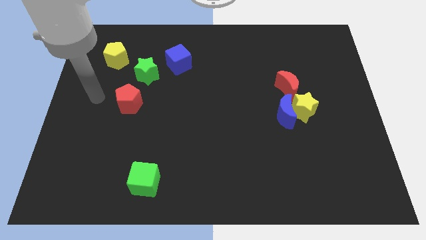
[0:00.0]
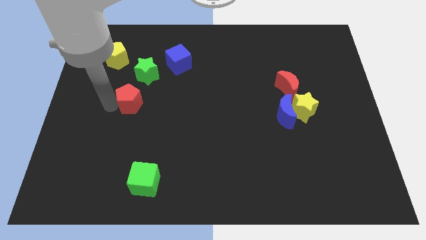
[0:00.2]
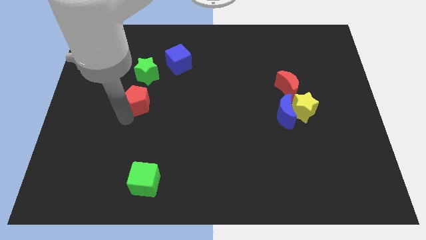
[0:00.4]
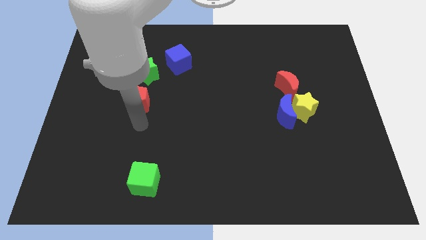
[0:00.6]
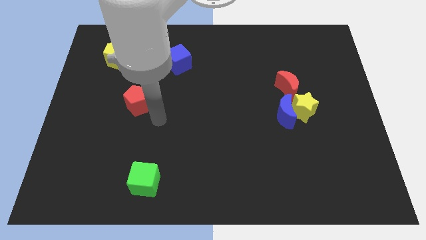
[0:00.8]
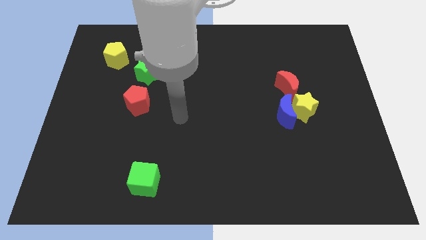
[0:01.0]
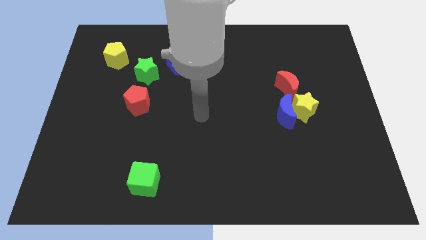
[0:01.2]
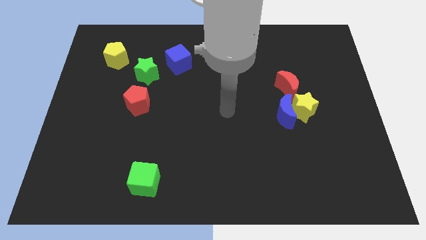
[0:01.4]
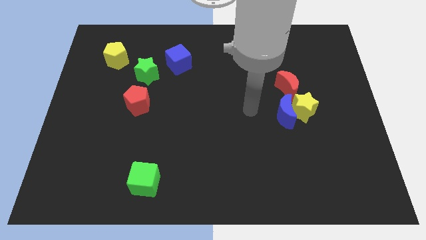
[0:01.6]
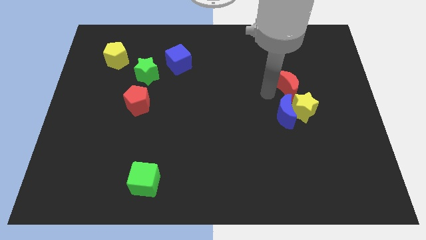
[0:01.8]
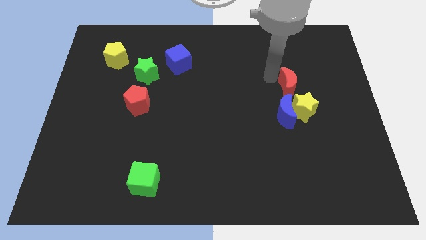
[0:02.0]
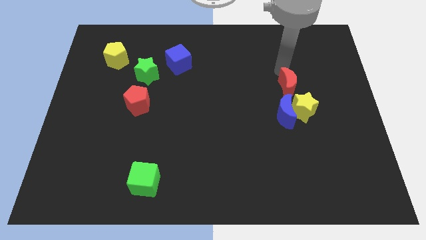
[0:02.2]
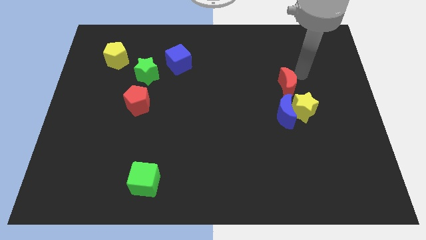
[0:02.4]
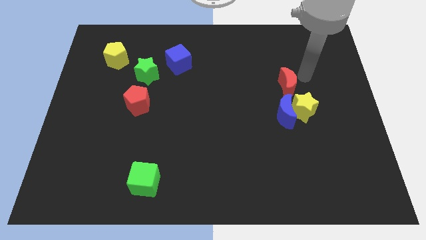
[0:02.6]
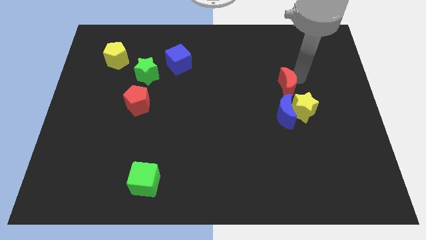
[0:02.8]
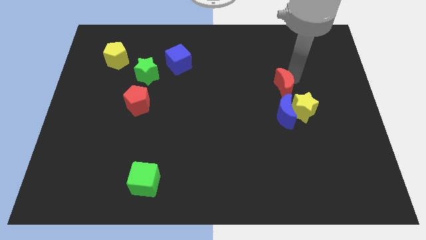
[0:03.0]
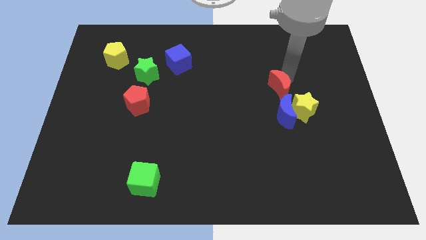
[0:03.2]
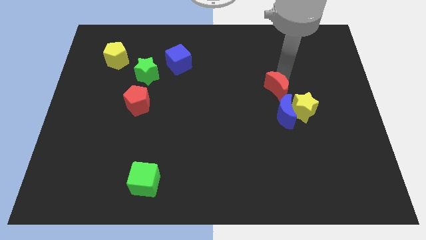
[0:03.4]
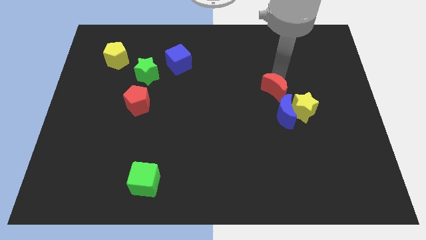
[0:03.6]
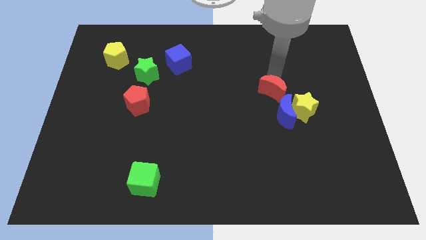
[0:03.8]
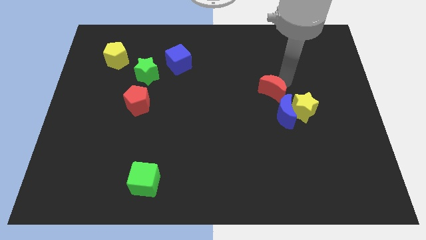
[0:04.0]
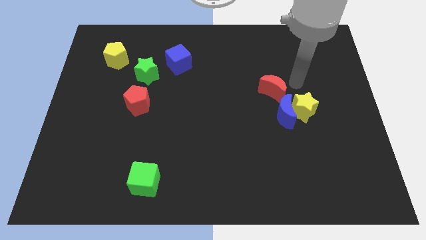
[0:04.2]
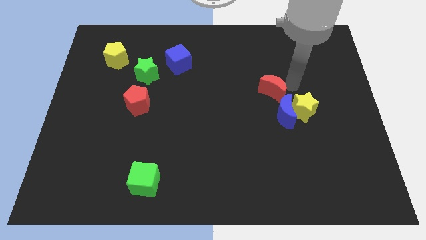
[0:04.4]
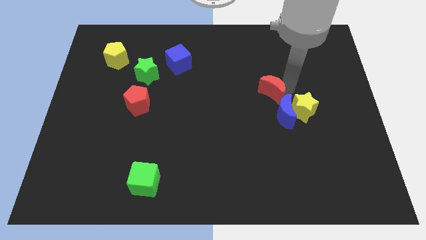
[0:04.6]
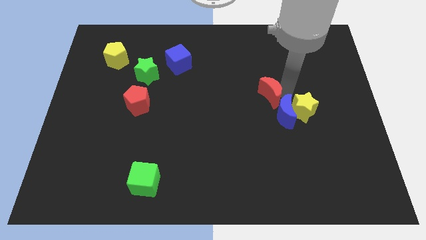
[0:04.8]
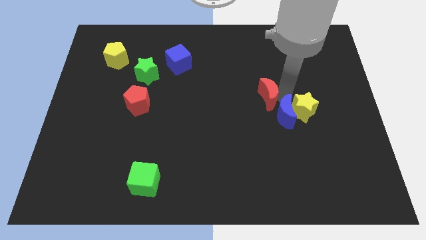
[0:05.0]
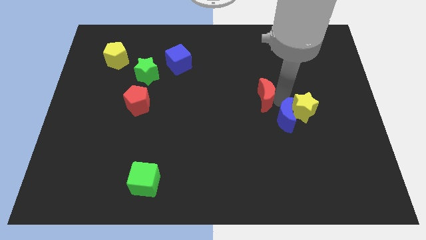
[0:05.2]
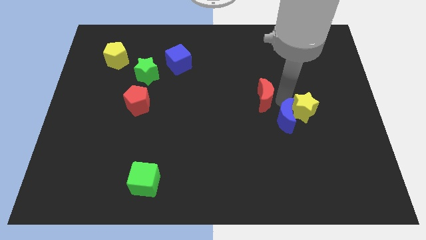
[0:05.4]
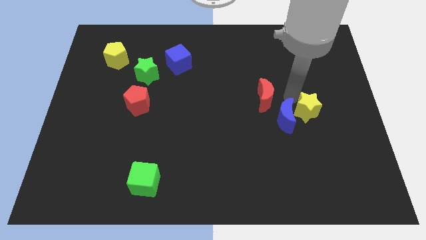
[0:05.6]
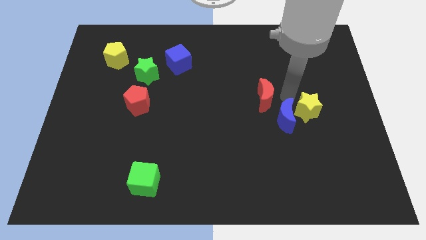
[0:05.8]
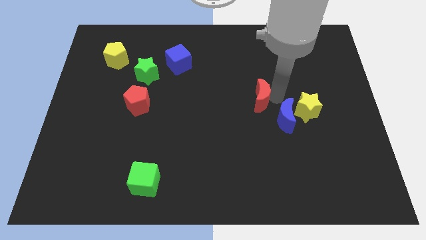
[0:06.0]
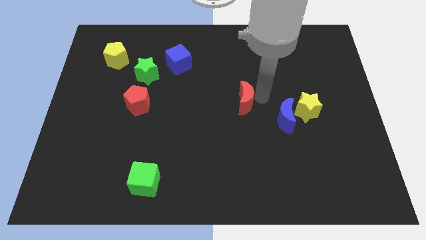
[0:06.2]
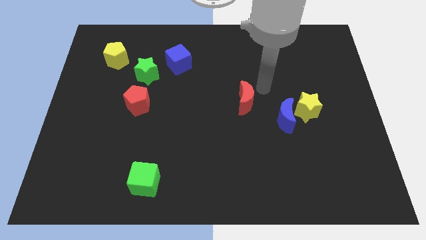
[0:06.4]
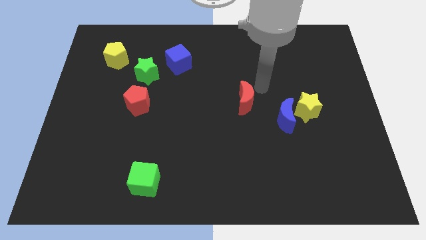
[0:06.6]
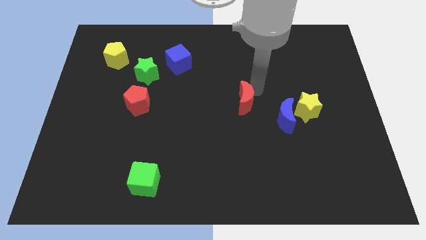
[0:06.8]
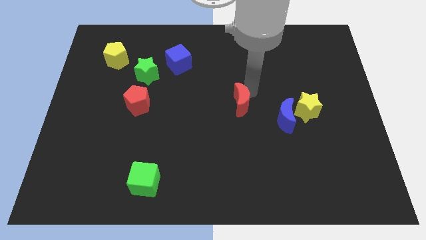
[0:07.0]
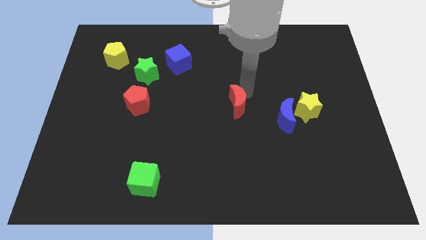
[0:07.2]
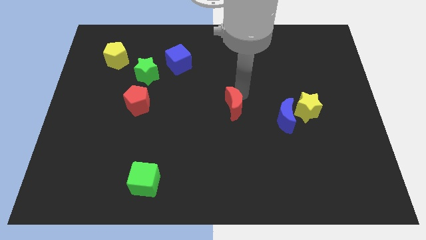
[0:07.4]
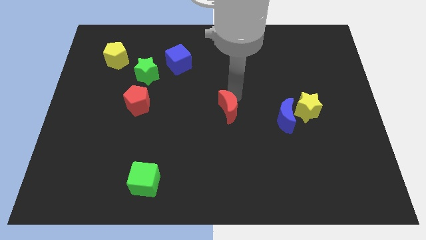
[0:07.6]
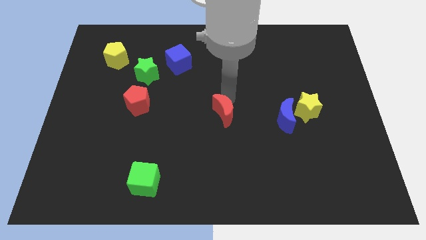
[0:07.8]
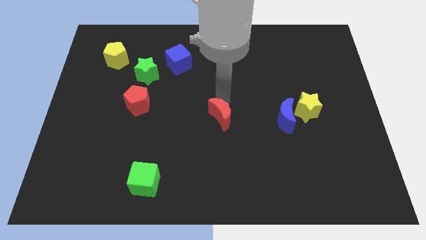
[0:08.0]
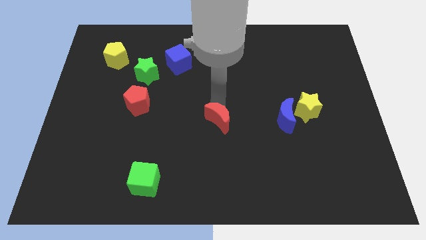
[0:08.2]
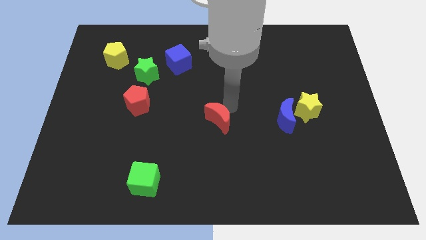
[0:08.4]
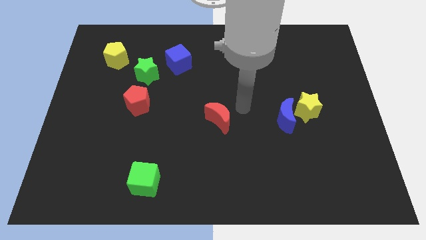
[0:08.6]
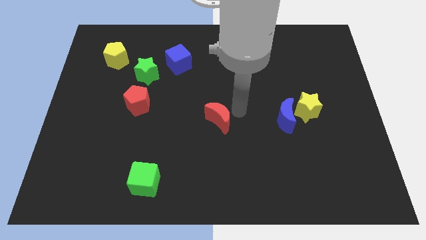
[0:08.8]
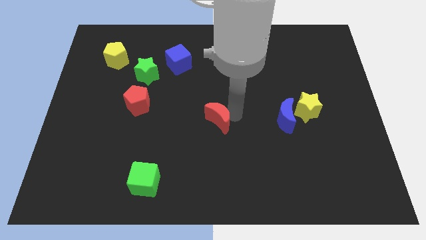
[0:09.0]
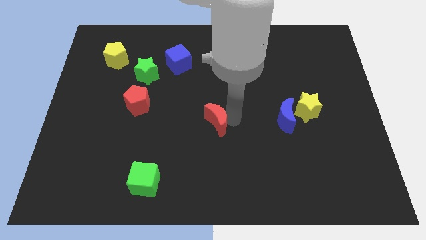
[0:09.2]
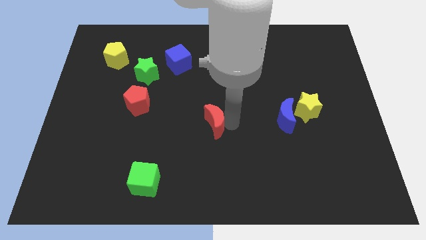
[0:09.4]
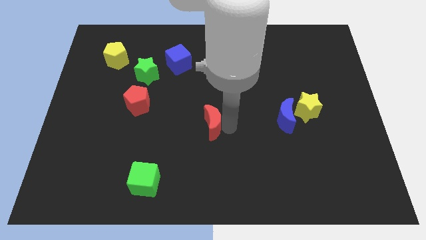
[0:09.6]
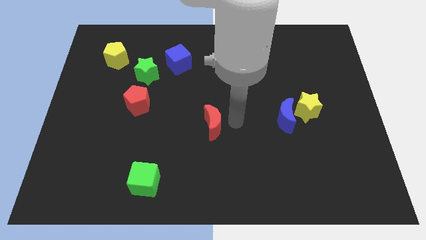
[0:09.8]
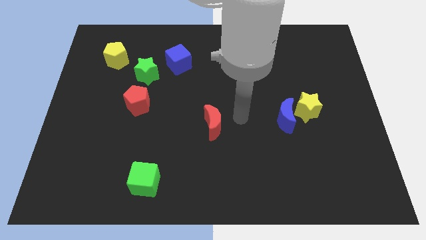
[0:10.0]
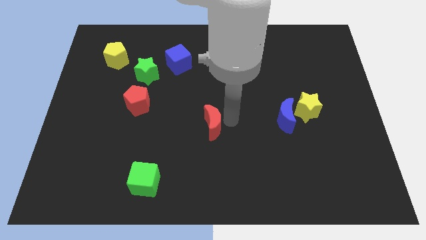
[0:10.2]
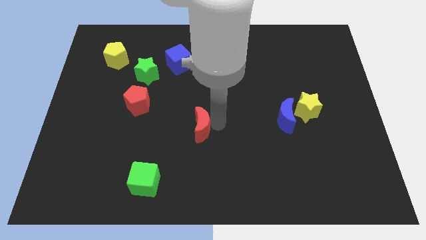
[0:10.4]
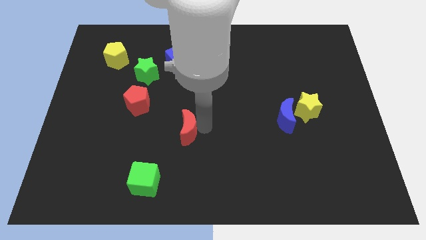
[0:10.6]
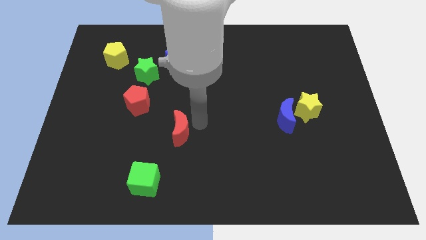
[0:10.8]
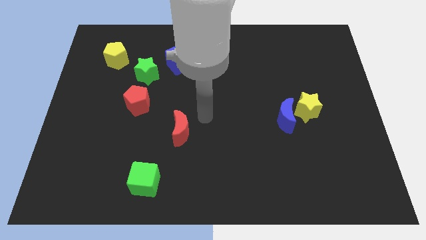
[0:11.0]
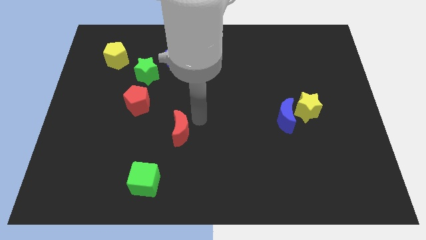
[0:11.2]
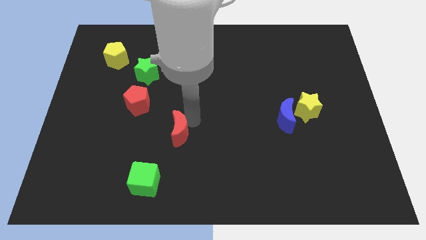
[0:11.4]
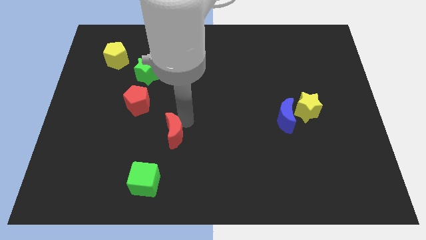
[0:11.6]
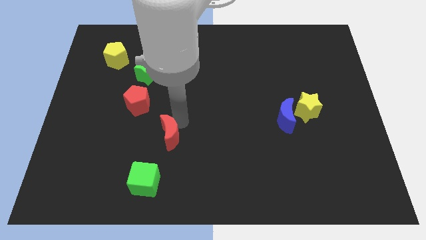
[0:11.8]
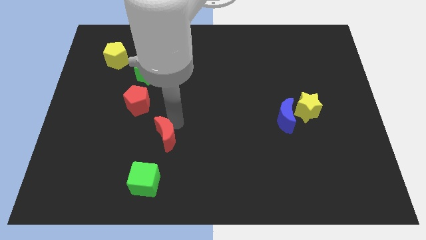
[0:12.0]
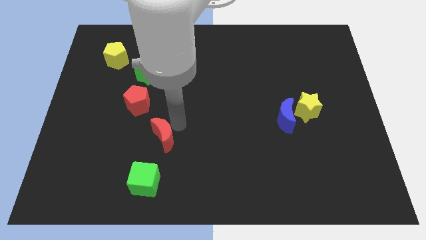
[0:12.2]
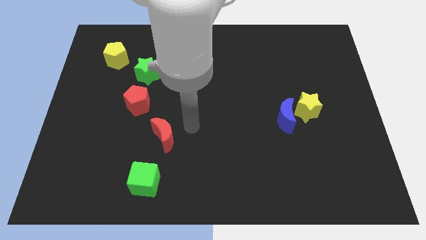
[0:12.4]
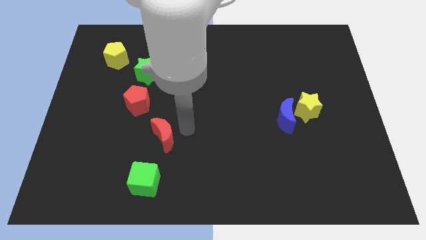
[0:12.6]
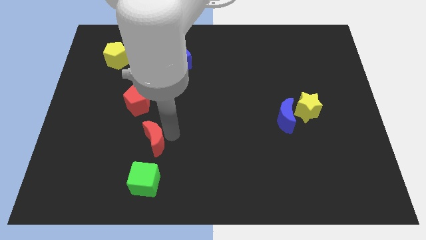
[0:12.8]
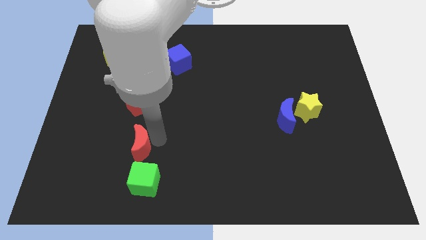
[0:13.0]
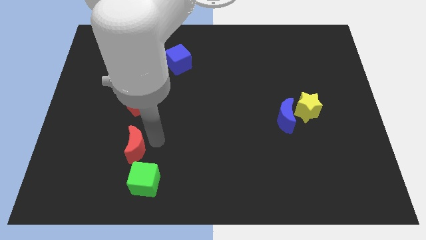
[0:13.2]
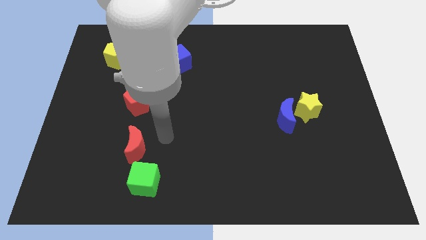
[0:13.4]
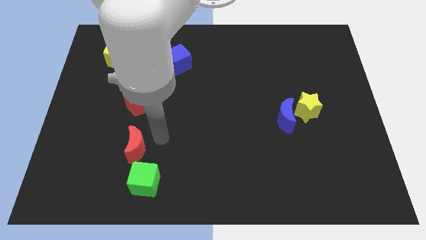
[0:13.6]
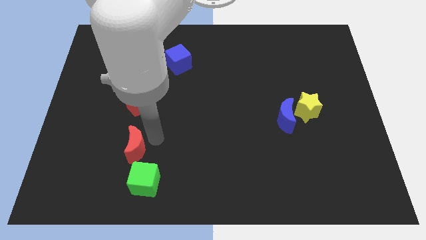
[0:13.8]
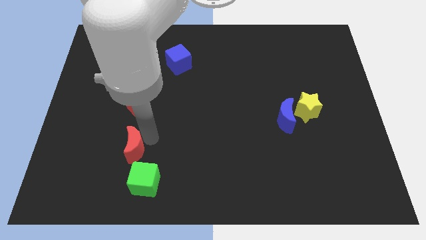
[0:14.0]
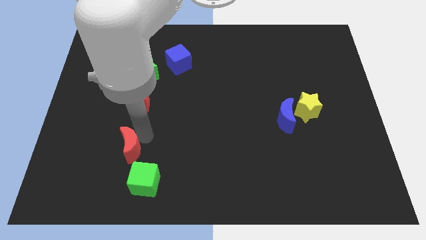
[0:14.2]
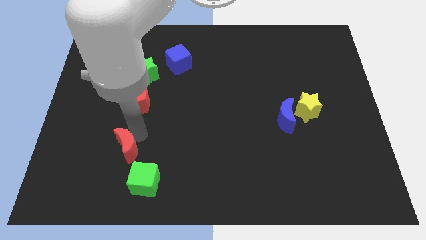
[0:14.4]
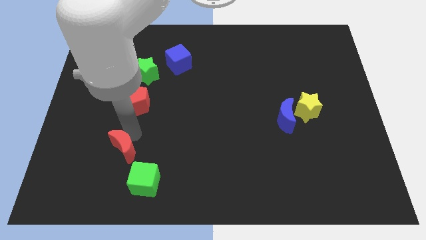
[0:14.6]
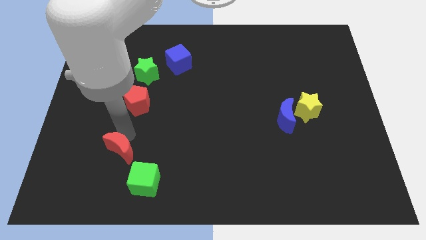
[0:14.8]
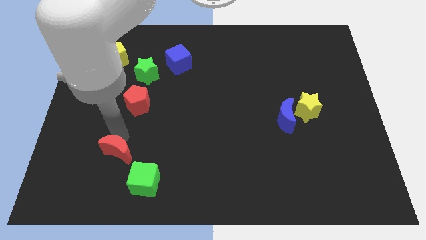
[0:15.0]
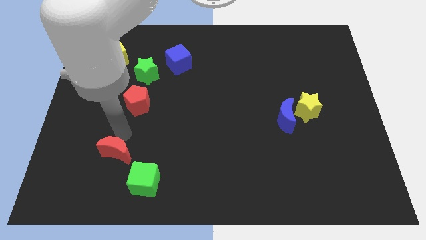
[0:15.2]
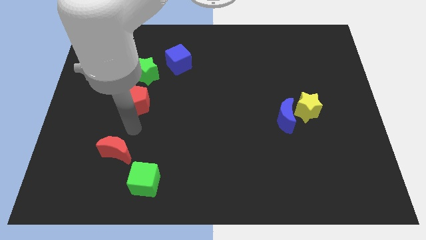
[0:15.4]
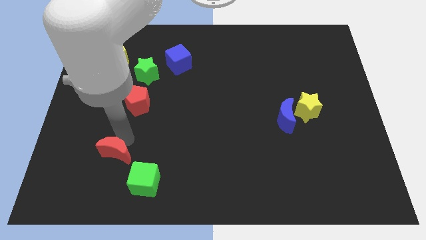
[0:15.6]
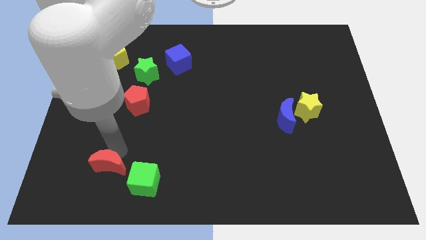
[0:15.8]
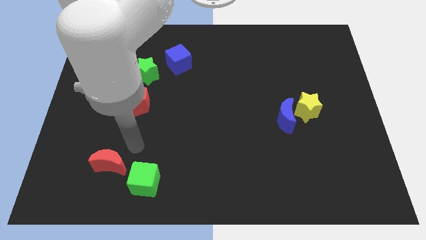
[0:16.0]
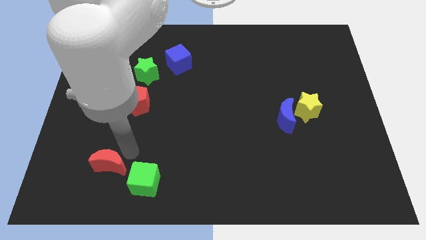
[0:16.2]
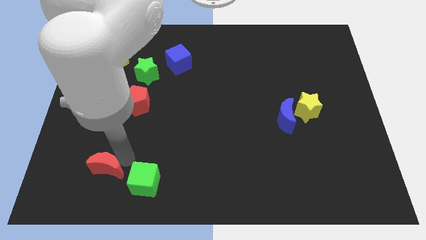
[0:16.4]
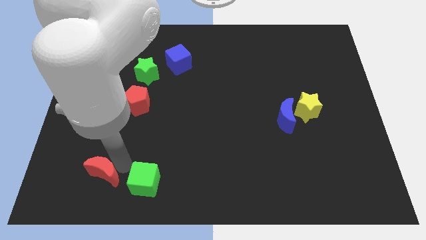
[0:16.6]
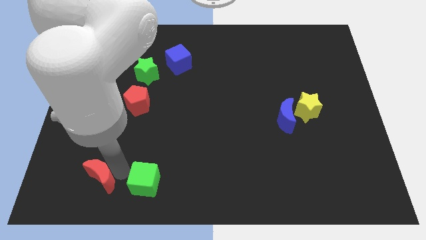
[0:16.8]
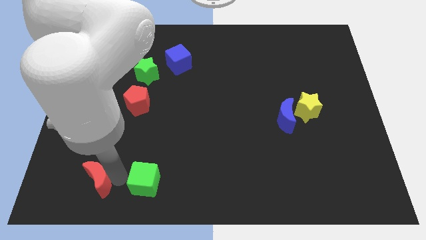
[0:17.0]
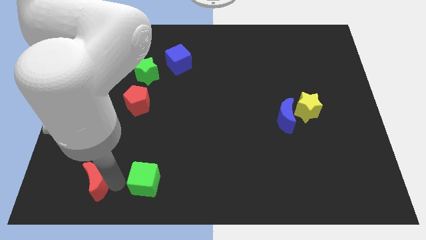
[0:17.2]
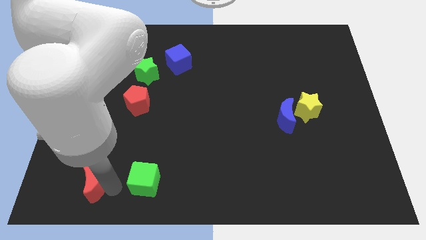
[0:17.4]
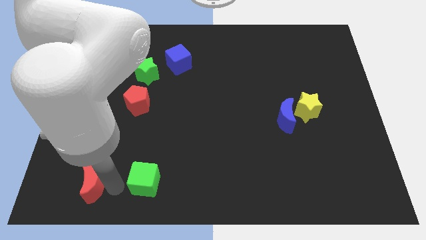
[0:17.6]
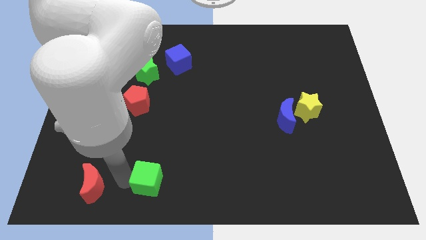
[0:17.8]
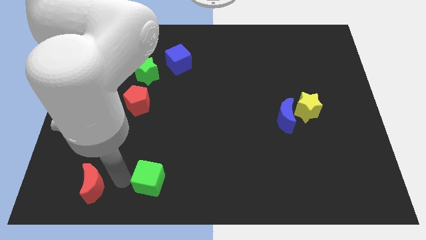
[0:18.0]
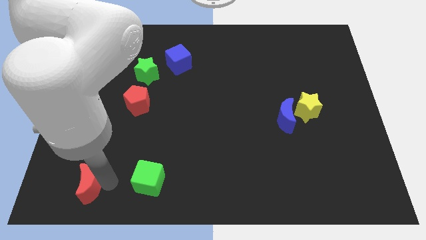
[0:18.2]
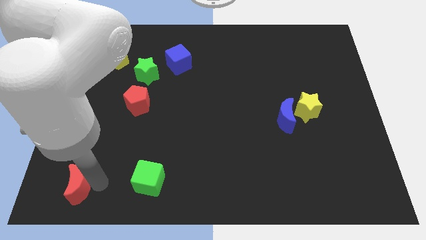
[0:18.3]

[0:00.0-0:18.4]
slide the red moon to the lower left corner
